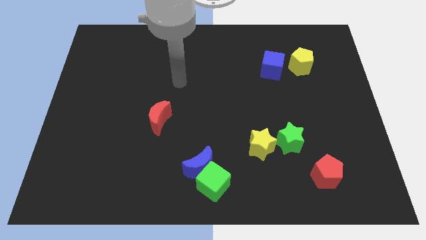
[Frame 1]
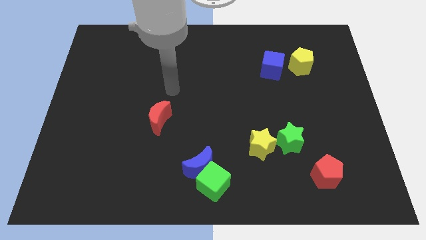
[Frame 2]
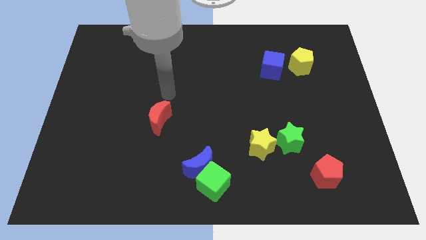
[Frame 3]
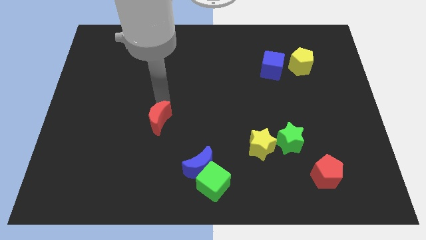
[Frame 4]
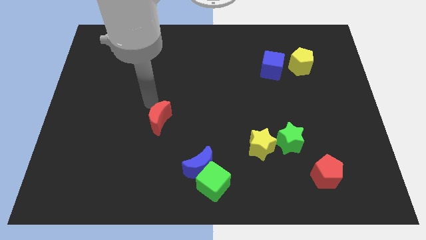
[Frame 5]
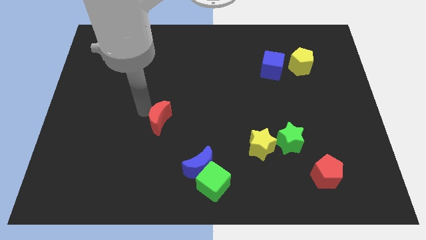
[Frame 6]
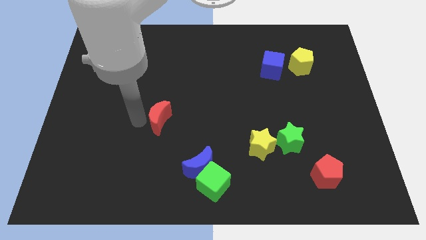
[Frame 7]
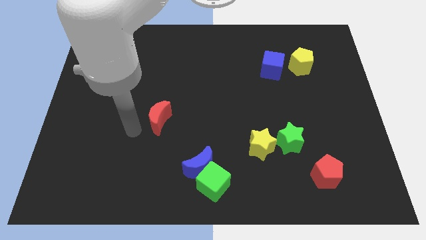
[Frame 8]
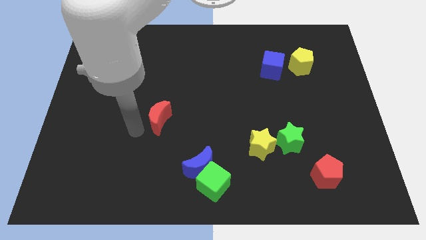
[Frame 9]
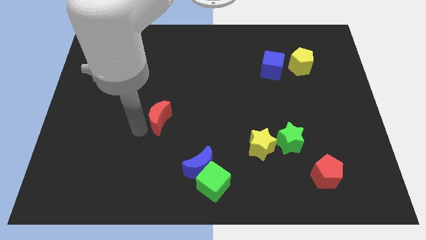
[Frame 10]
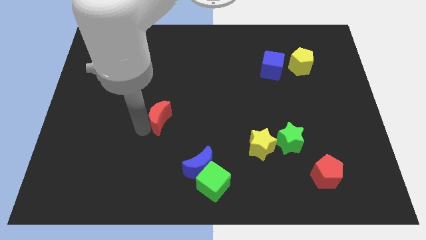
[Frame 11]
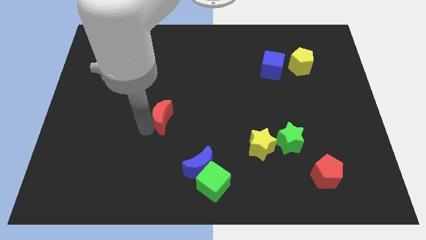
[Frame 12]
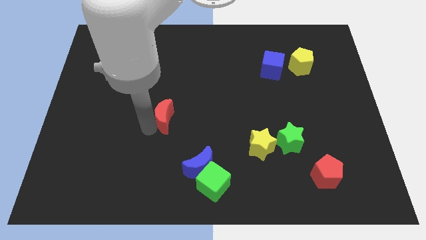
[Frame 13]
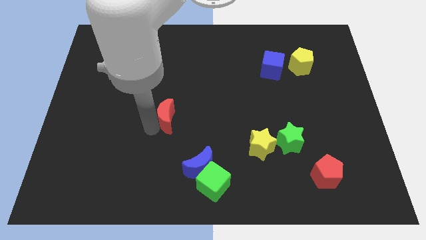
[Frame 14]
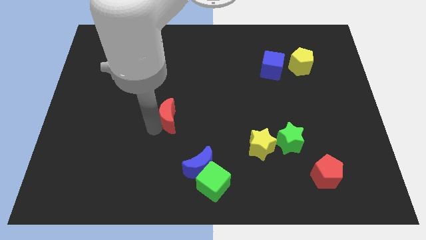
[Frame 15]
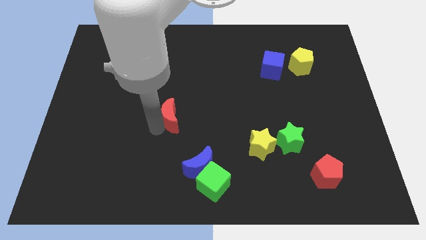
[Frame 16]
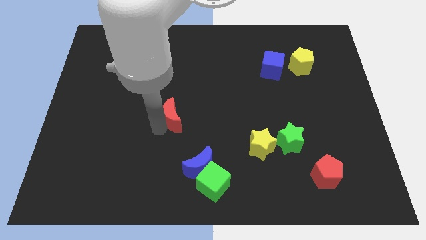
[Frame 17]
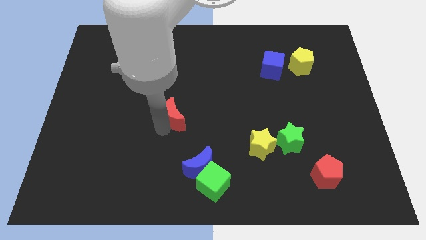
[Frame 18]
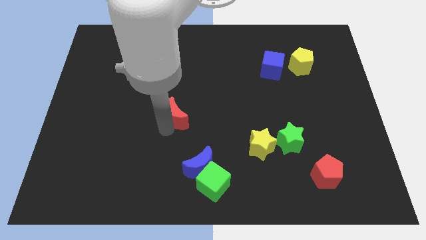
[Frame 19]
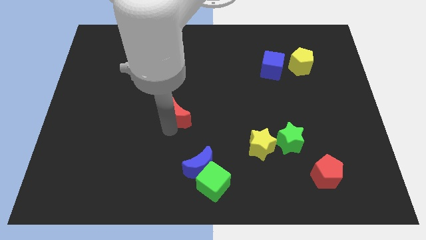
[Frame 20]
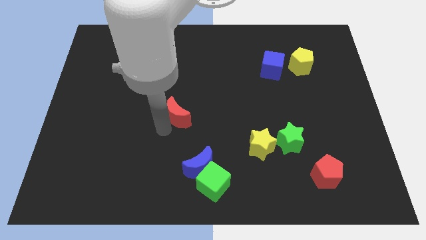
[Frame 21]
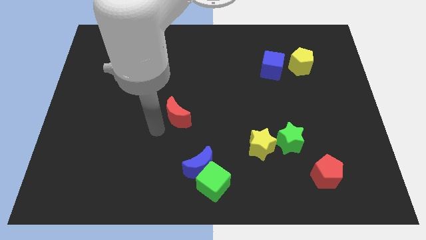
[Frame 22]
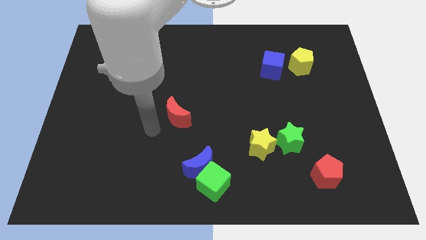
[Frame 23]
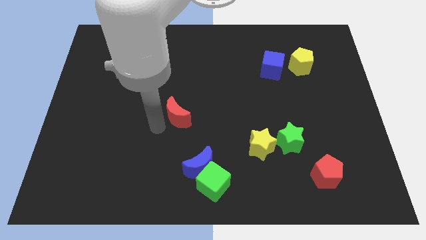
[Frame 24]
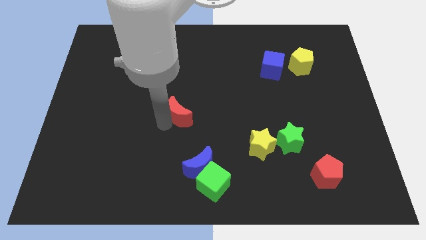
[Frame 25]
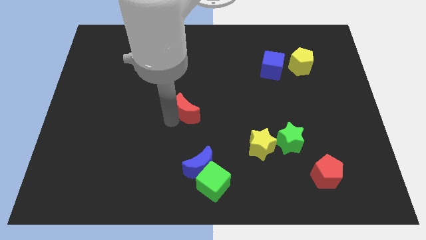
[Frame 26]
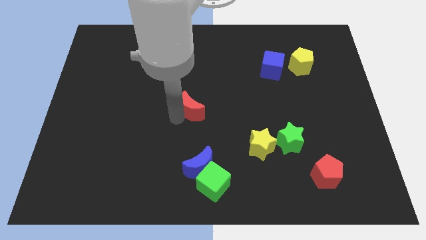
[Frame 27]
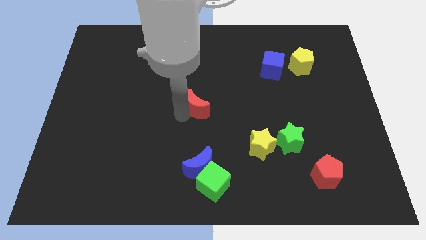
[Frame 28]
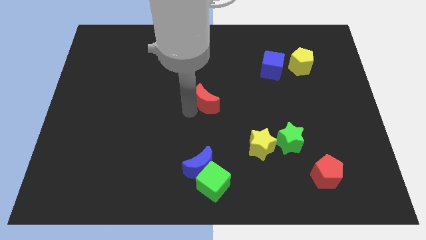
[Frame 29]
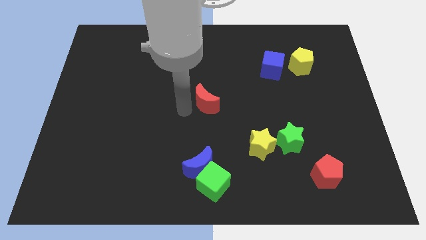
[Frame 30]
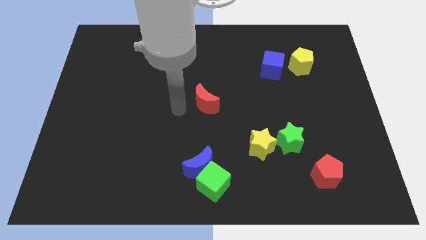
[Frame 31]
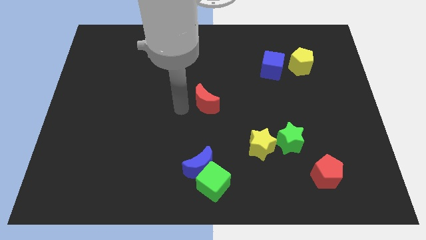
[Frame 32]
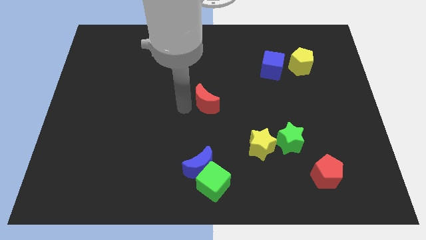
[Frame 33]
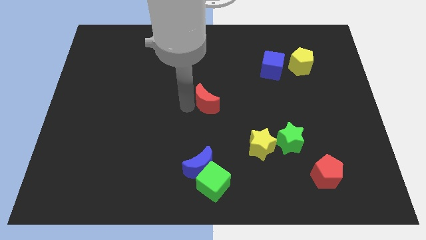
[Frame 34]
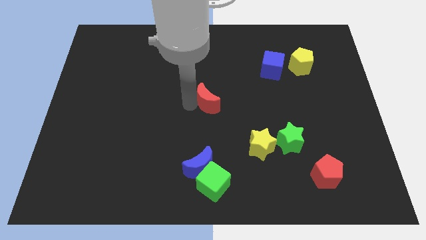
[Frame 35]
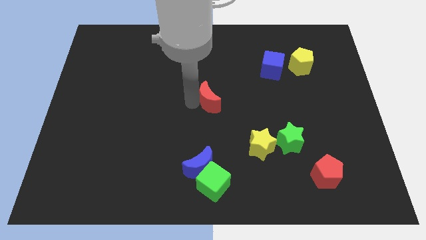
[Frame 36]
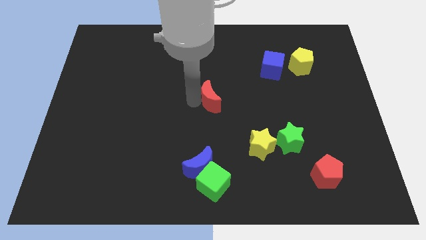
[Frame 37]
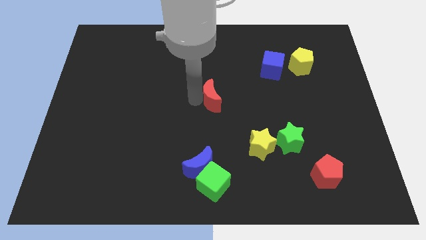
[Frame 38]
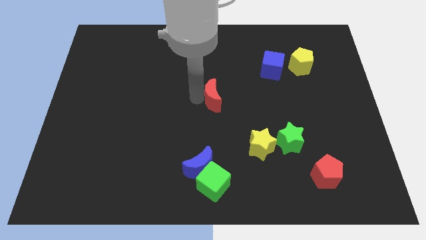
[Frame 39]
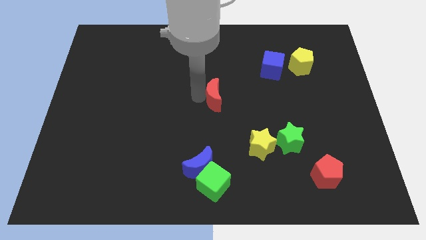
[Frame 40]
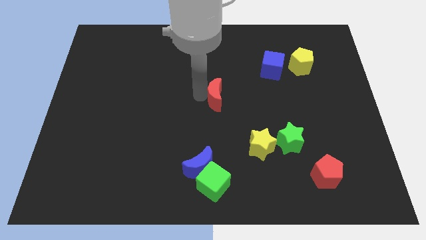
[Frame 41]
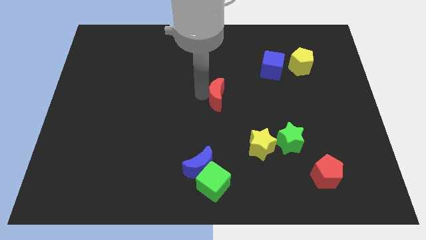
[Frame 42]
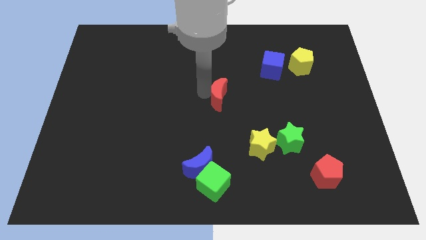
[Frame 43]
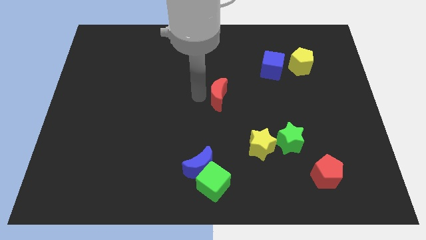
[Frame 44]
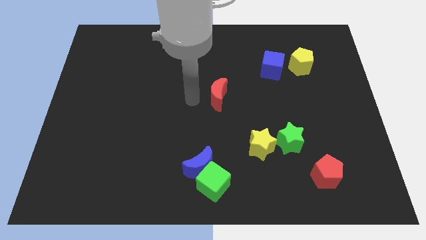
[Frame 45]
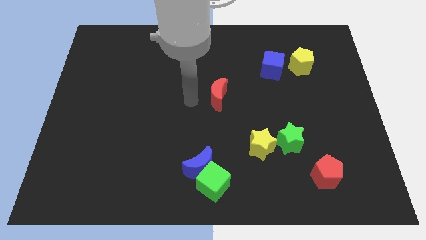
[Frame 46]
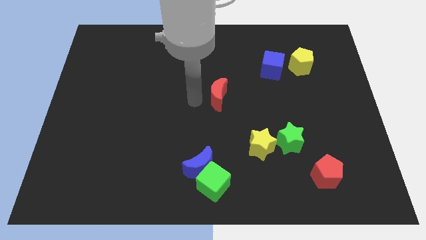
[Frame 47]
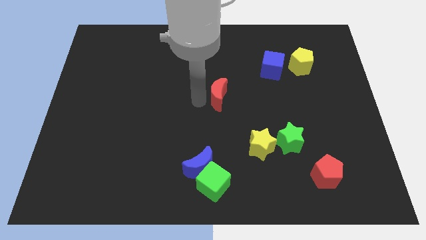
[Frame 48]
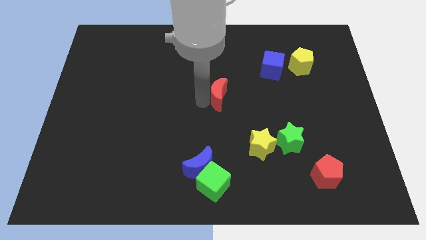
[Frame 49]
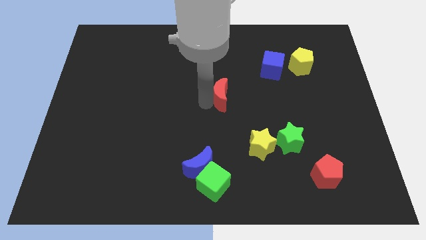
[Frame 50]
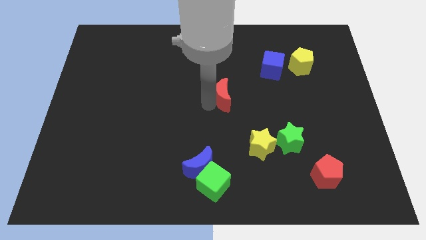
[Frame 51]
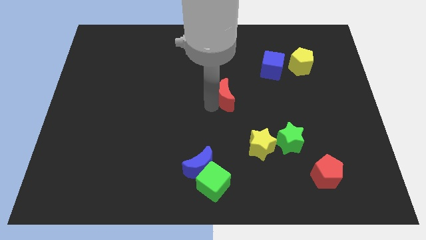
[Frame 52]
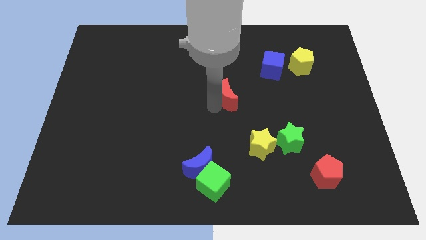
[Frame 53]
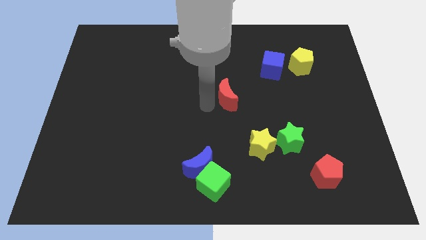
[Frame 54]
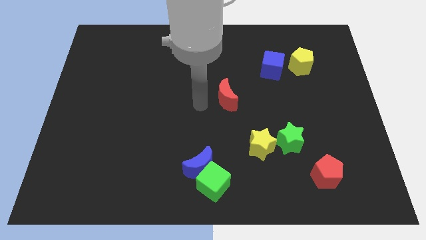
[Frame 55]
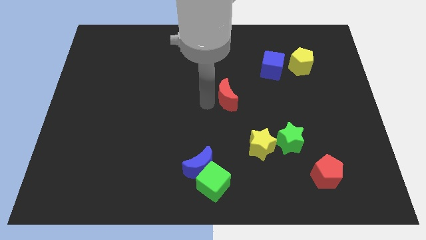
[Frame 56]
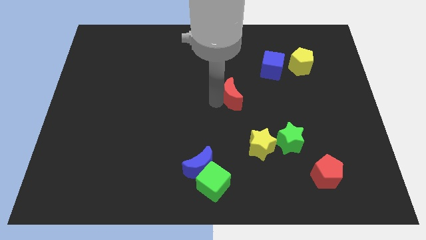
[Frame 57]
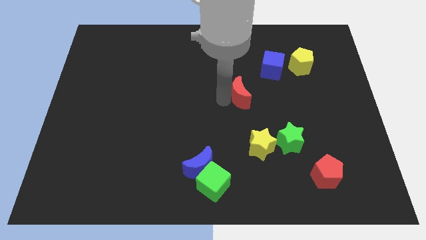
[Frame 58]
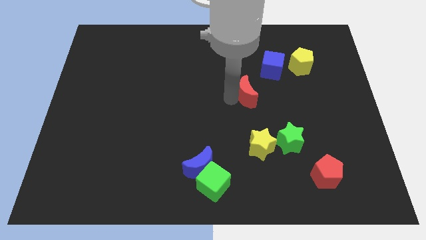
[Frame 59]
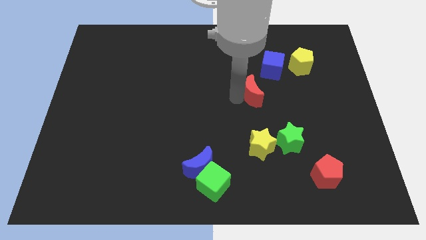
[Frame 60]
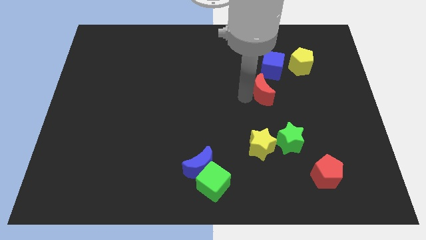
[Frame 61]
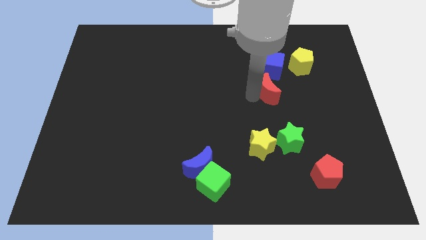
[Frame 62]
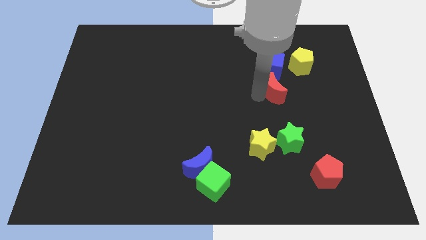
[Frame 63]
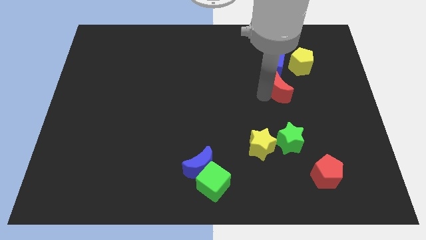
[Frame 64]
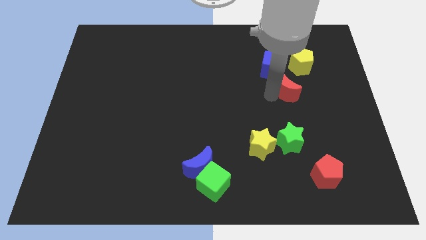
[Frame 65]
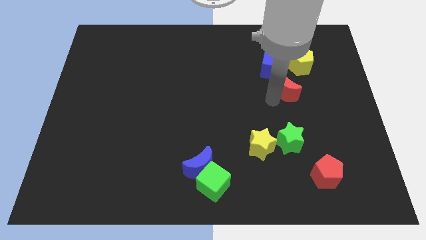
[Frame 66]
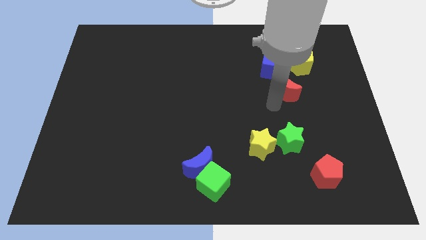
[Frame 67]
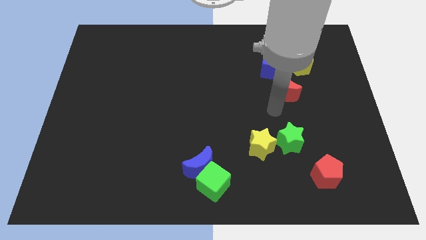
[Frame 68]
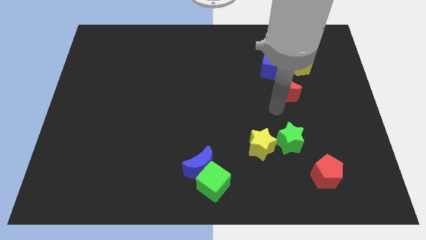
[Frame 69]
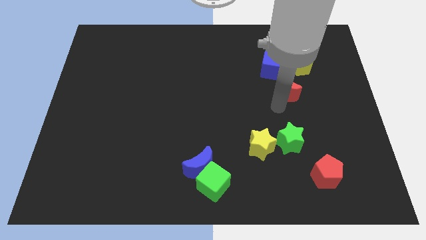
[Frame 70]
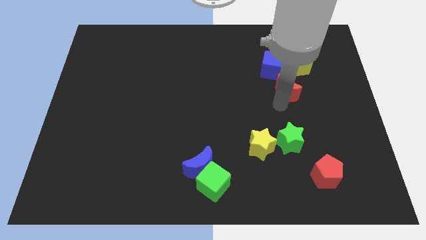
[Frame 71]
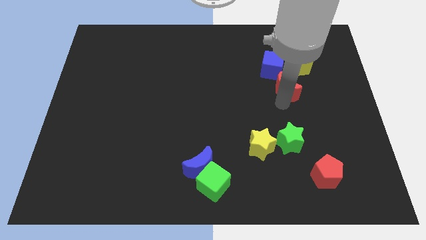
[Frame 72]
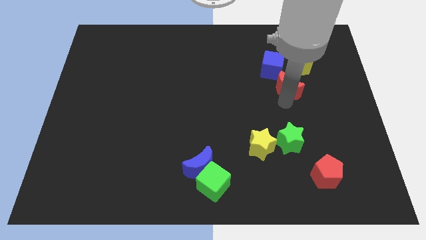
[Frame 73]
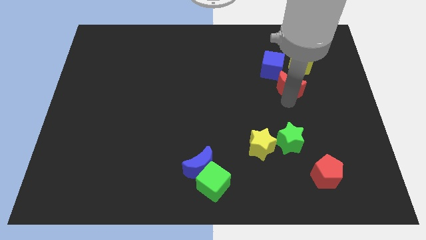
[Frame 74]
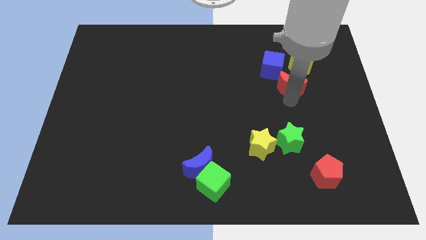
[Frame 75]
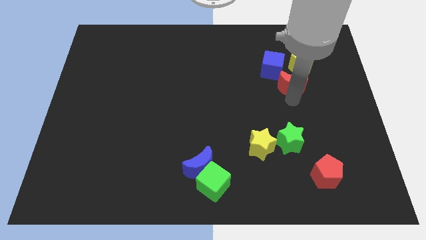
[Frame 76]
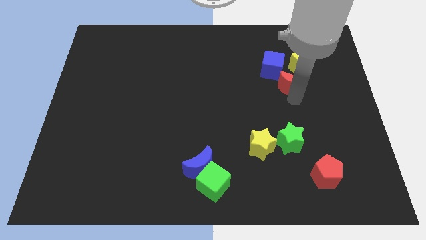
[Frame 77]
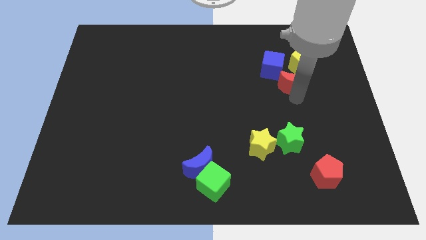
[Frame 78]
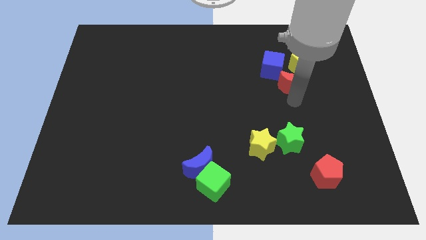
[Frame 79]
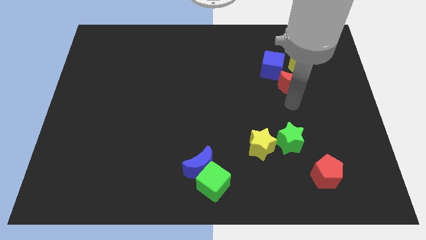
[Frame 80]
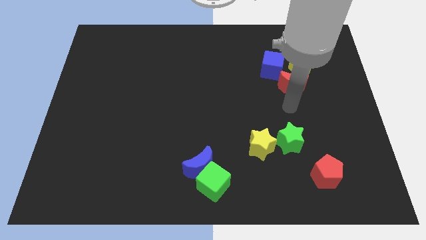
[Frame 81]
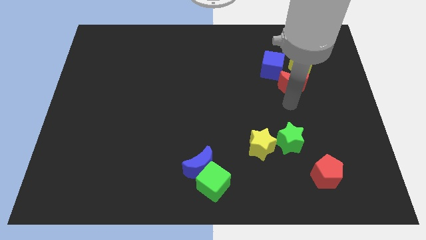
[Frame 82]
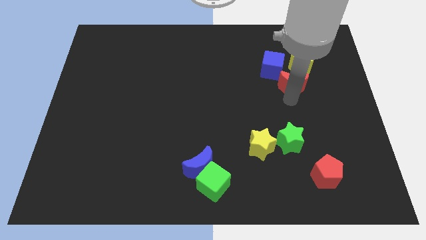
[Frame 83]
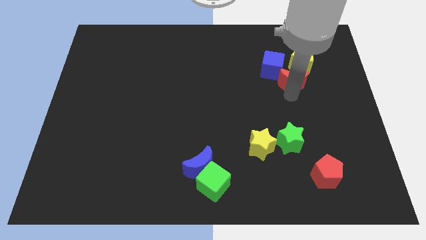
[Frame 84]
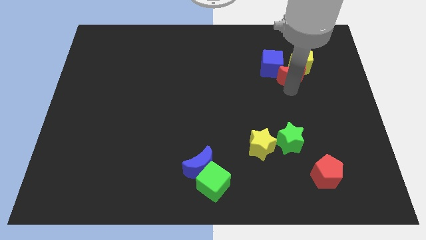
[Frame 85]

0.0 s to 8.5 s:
move the red moon towards the yellow pentagon
